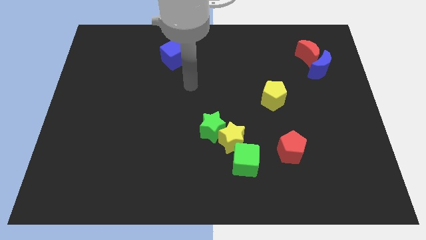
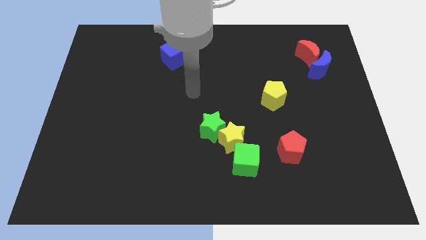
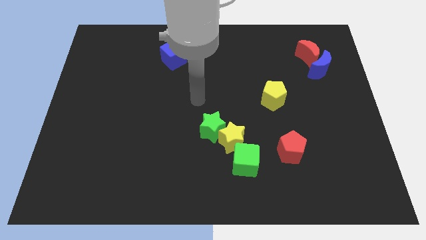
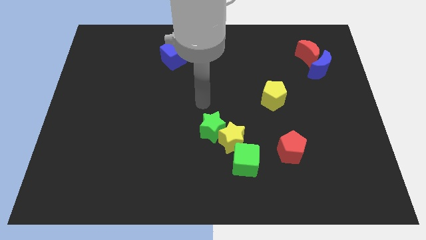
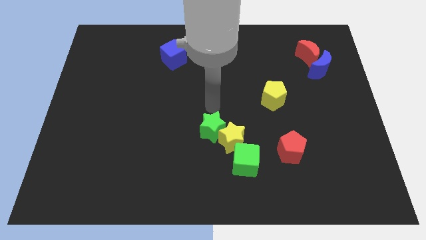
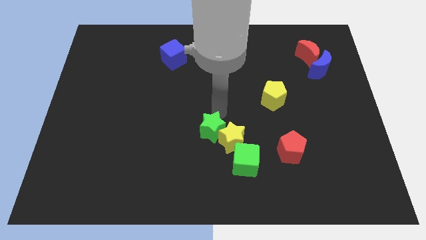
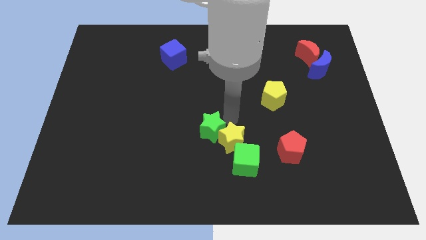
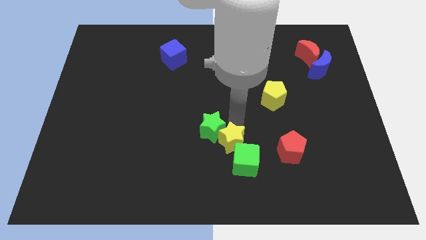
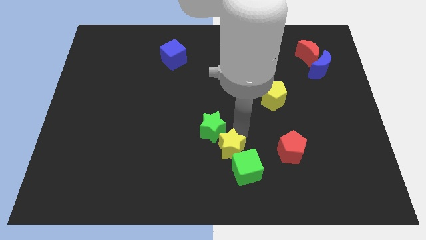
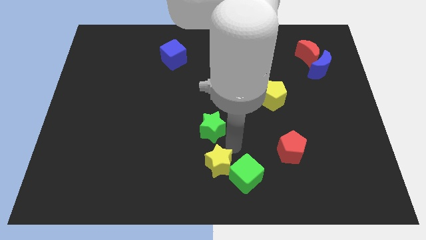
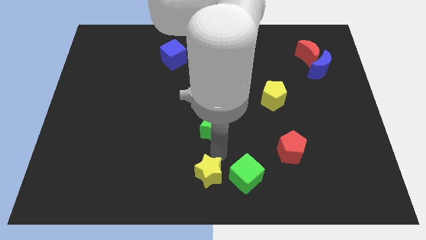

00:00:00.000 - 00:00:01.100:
pull the green star apart from the yellow star

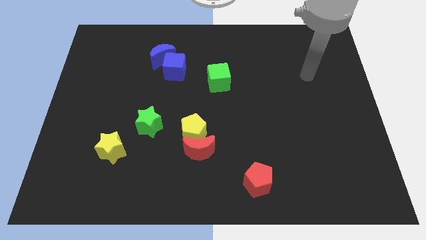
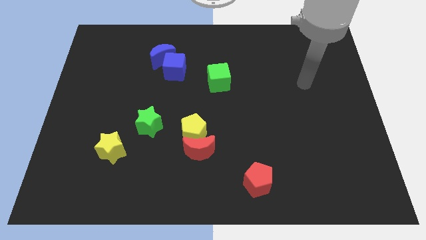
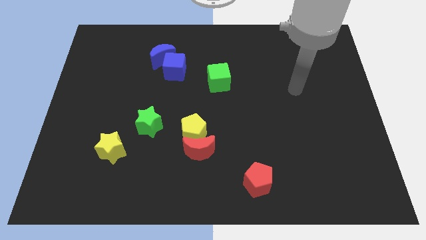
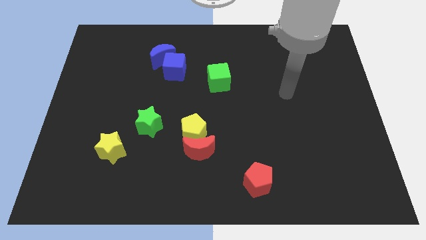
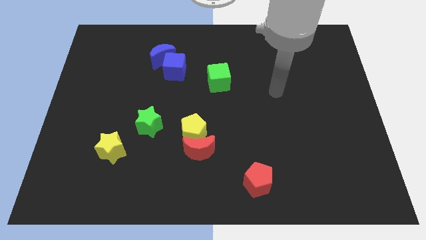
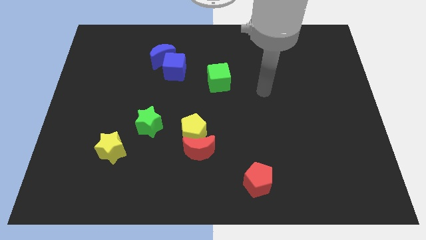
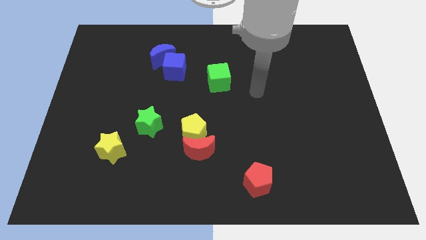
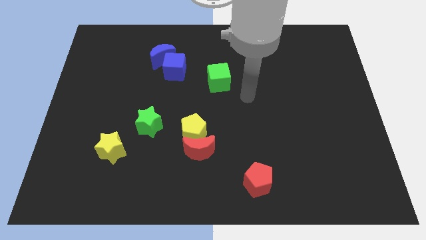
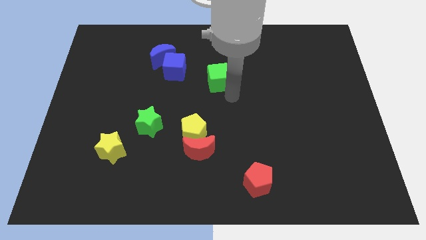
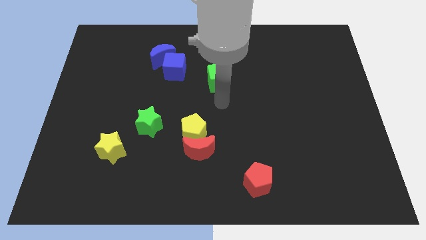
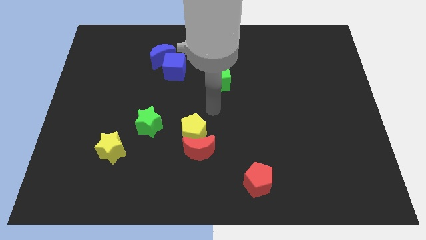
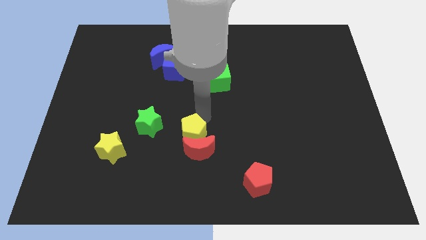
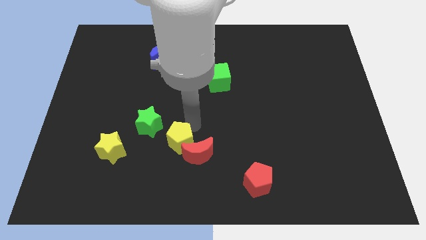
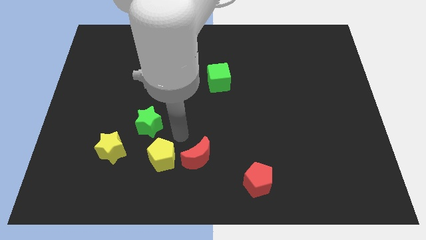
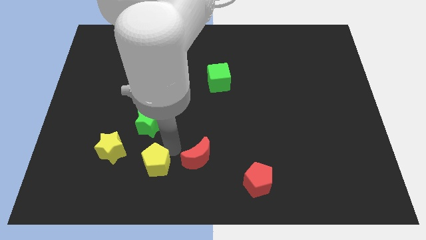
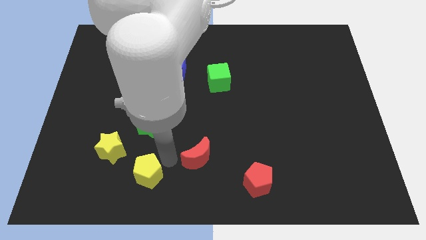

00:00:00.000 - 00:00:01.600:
pull the red moon apart from the yellow pentagon

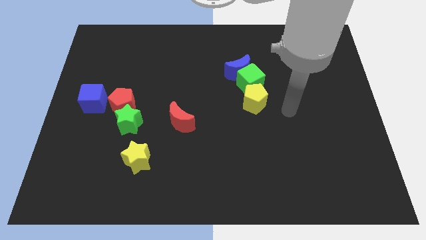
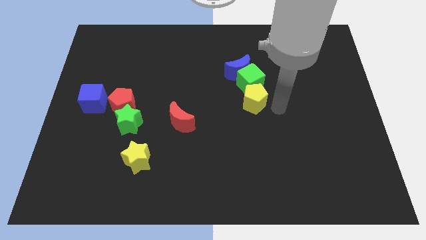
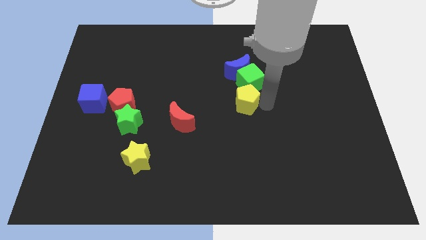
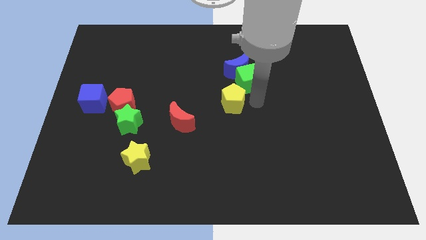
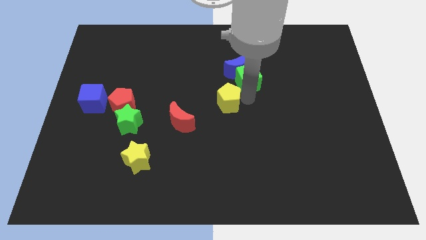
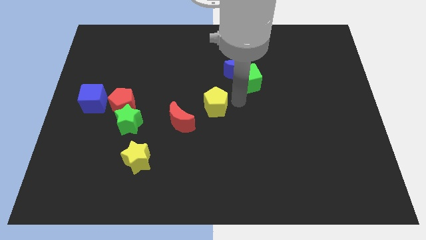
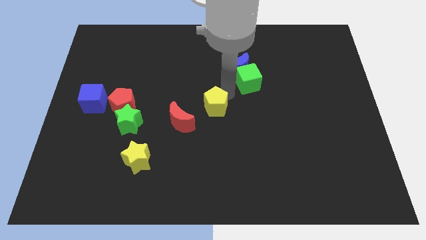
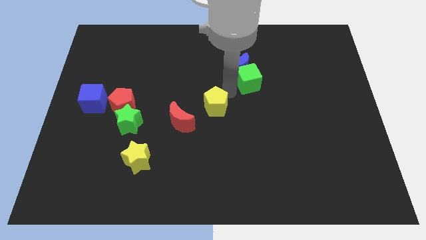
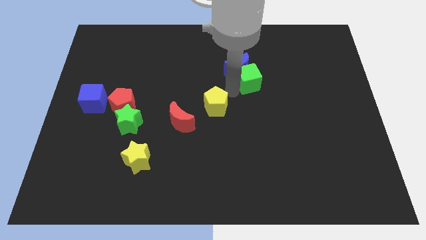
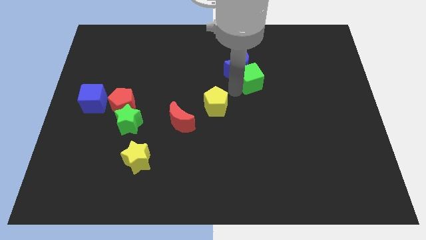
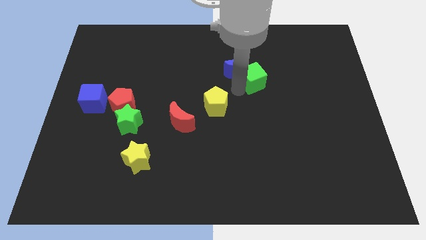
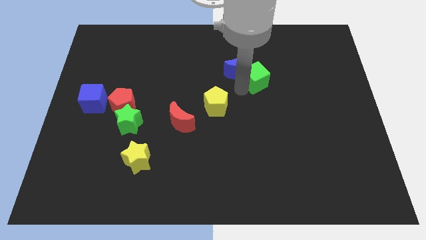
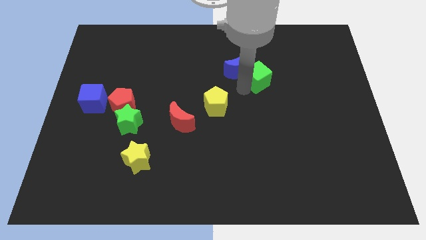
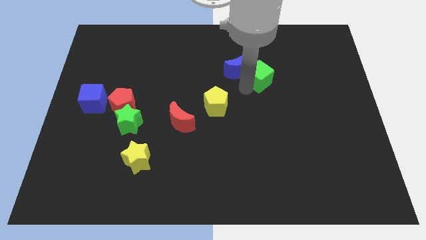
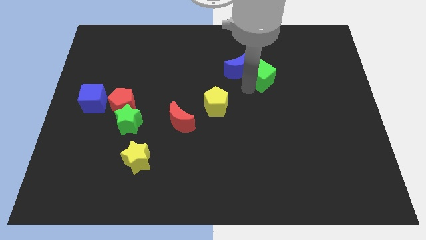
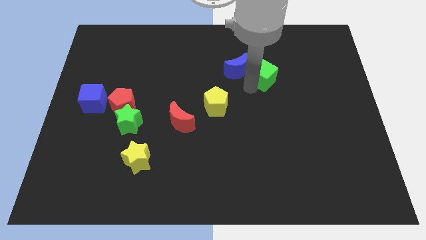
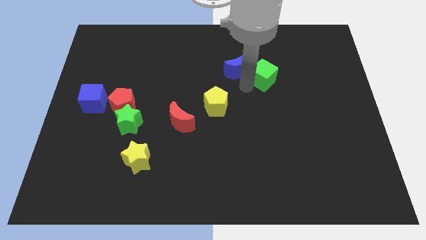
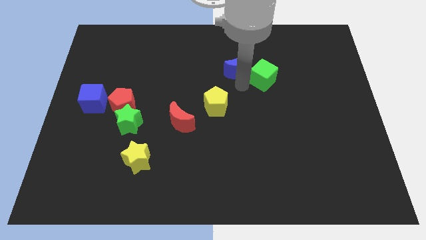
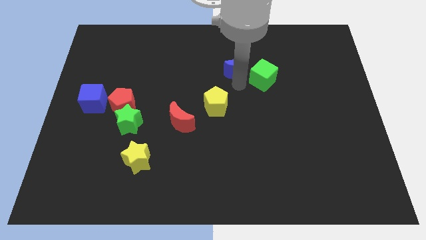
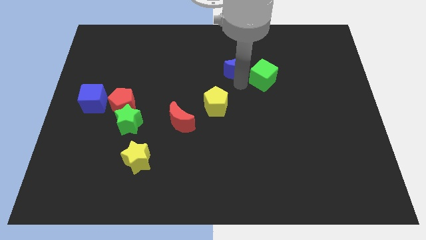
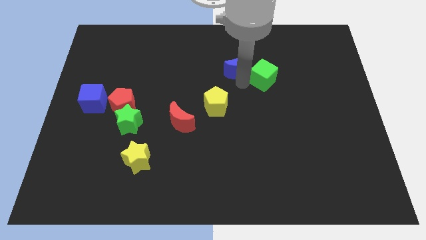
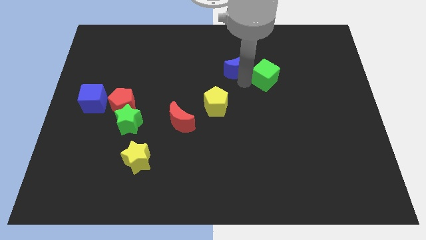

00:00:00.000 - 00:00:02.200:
pull the green cube apart from the blue moon and yellow pentagon

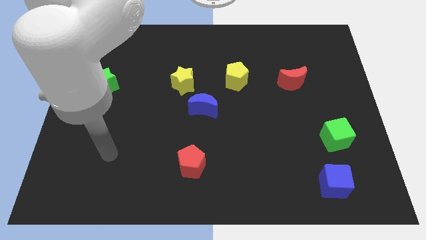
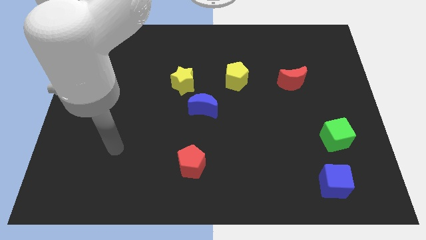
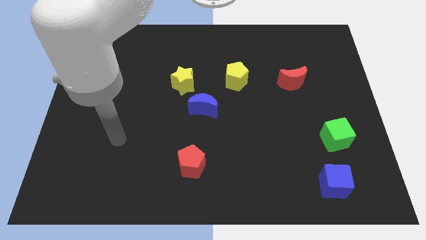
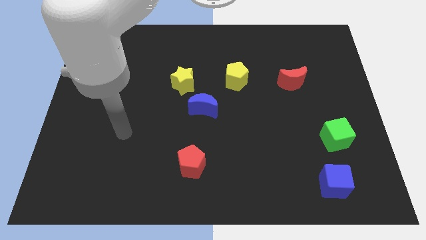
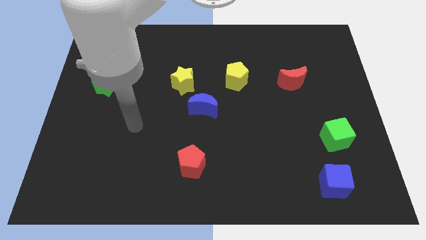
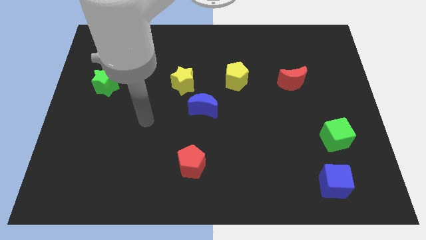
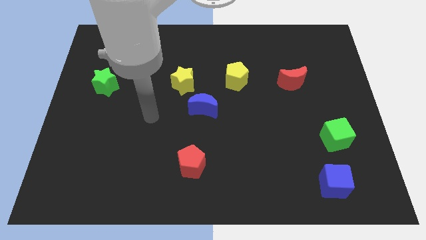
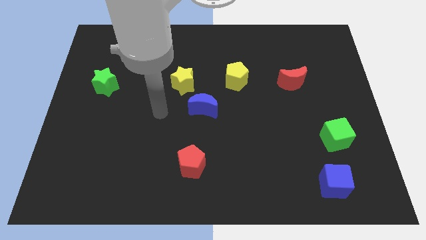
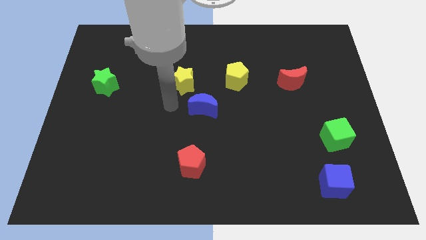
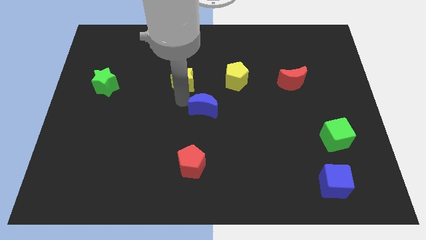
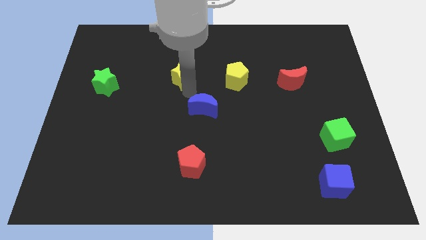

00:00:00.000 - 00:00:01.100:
move the blue moon away from the yellow star

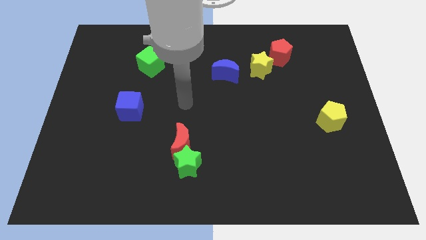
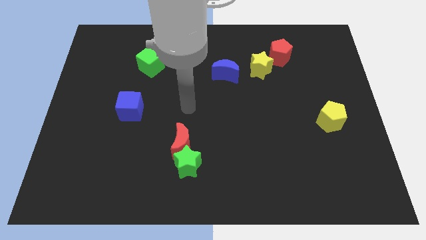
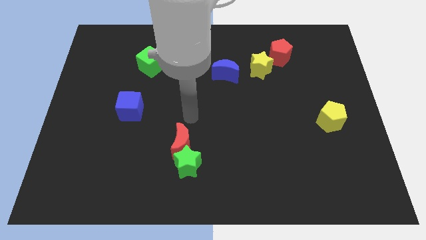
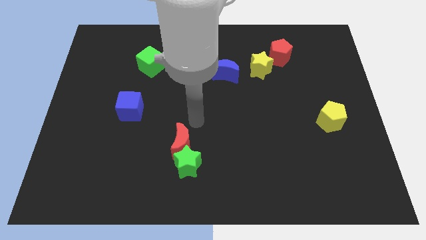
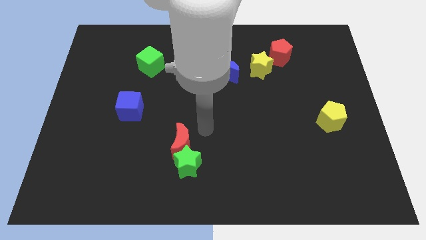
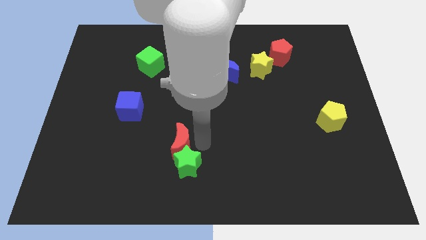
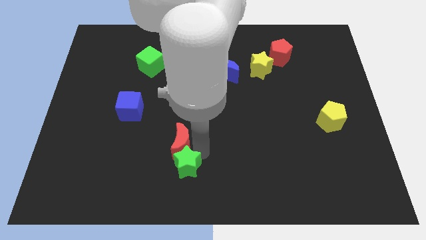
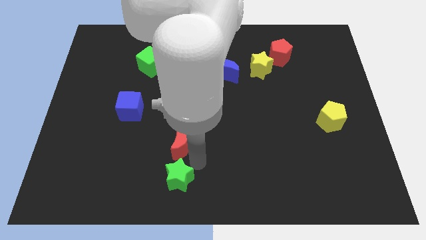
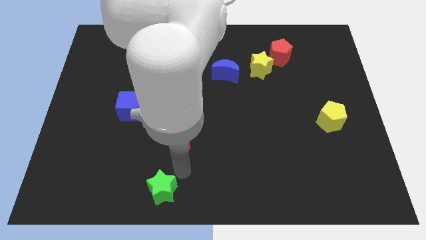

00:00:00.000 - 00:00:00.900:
separate the red moon from the green star

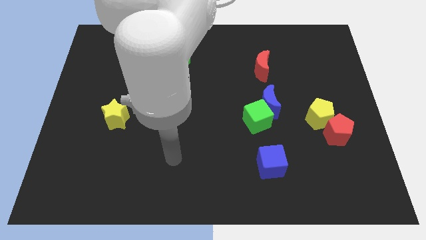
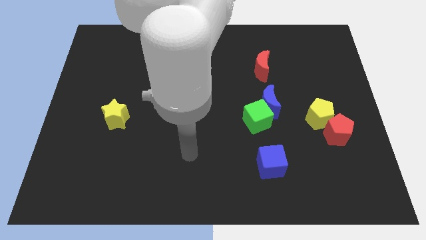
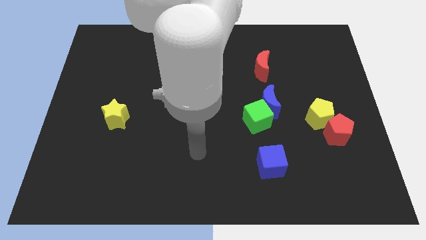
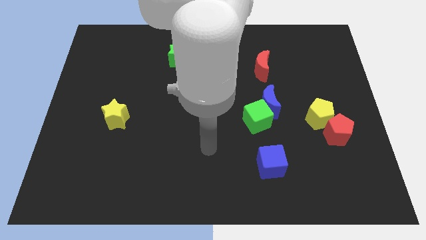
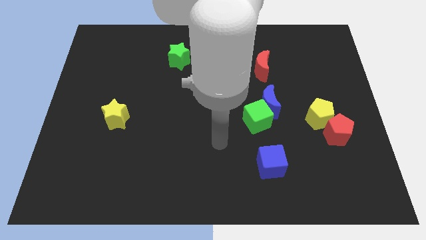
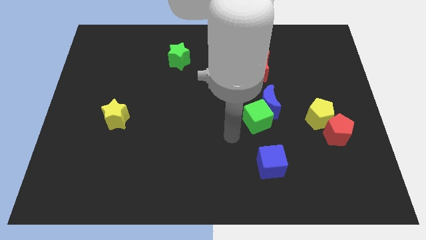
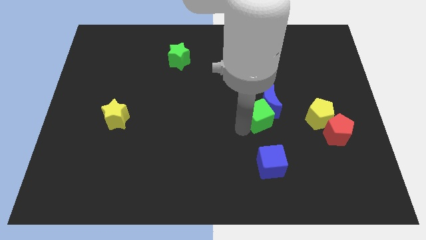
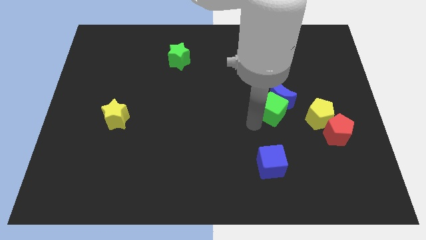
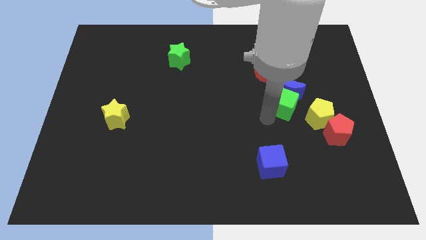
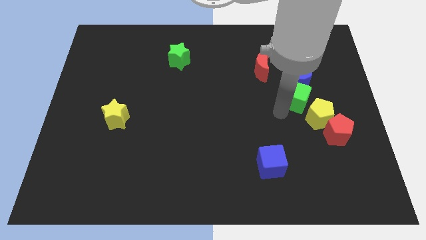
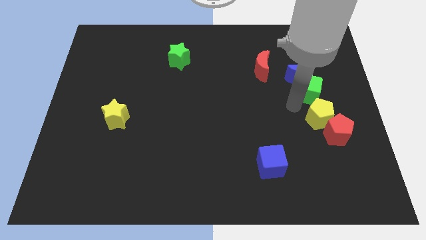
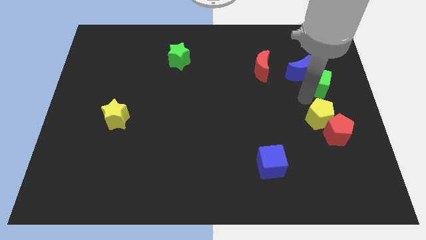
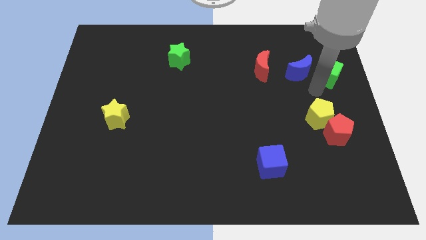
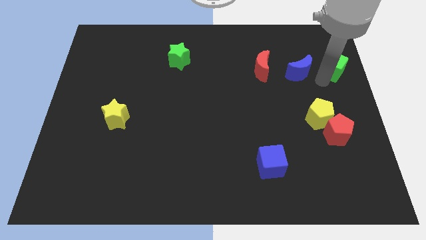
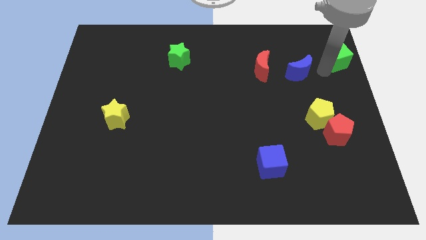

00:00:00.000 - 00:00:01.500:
pull the blue moon apart from the green cube

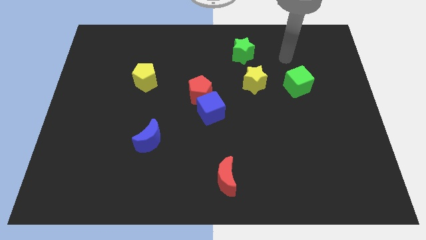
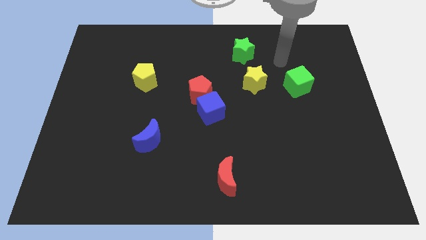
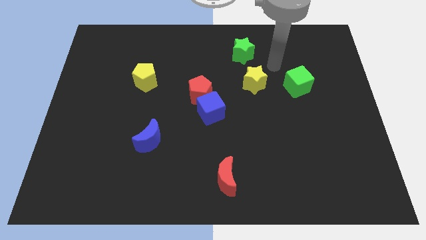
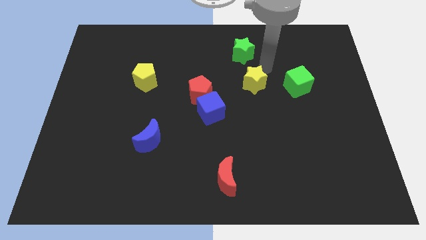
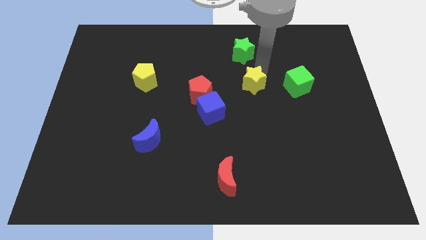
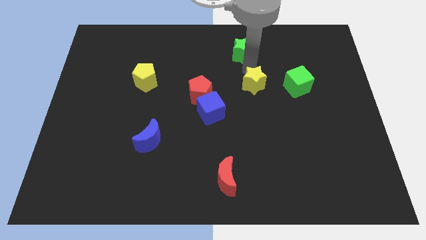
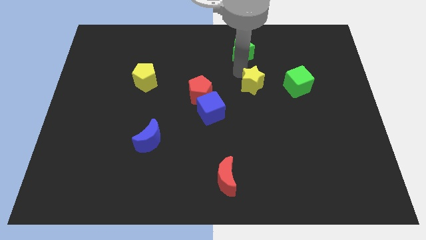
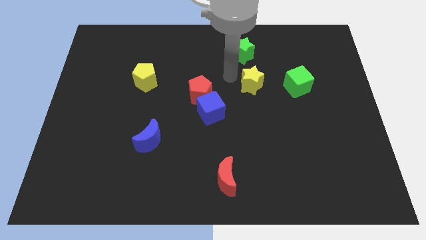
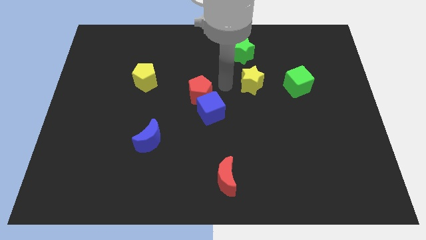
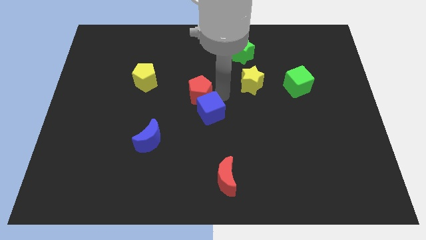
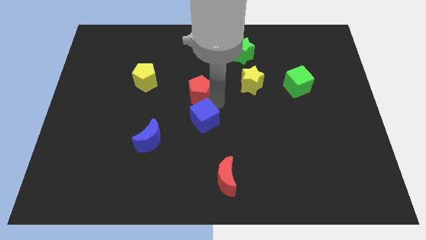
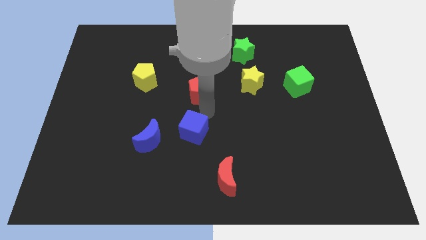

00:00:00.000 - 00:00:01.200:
separate the red pentagon from the blue cube
